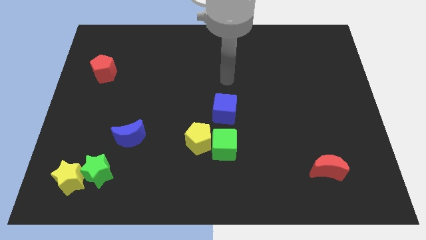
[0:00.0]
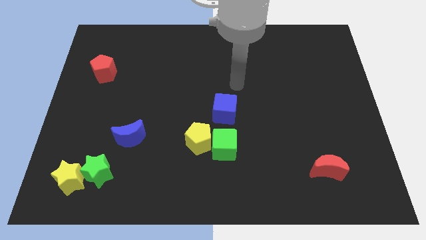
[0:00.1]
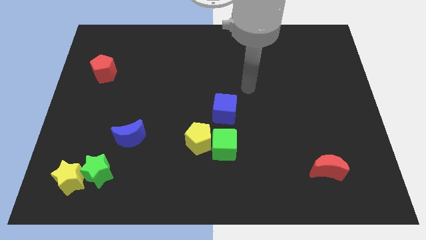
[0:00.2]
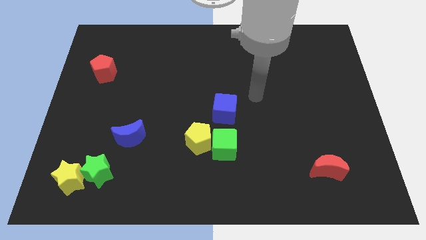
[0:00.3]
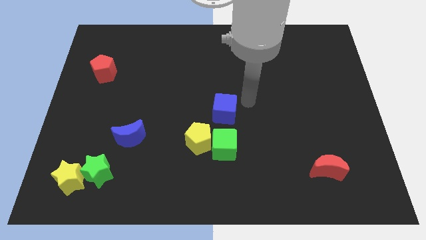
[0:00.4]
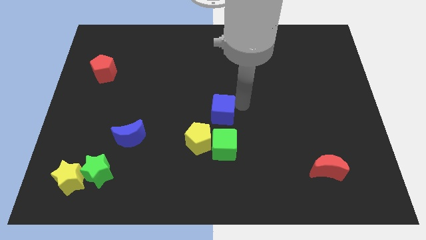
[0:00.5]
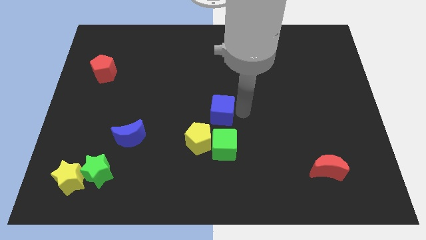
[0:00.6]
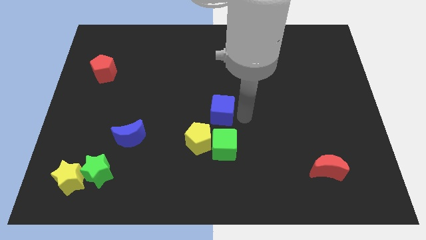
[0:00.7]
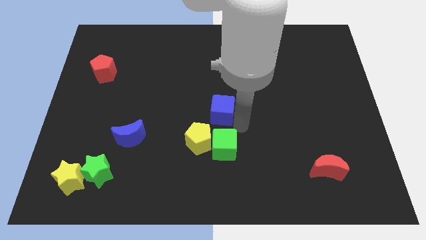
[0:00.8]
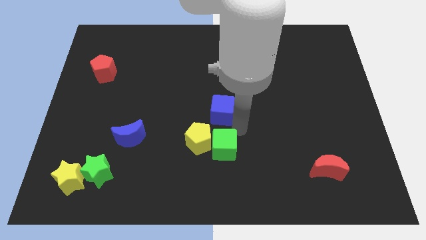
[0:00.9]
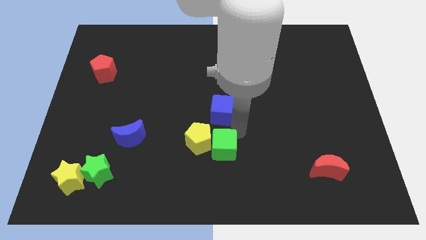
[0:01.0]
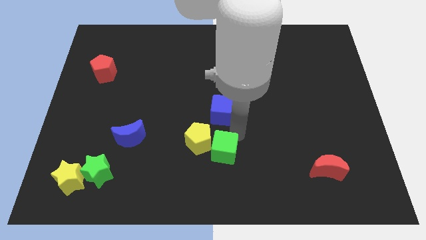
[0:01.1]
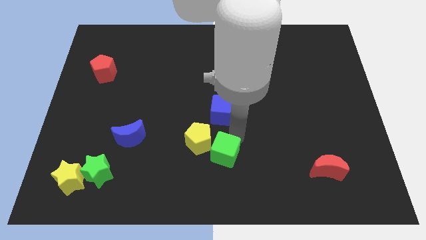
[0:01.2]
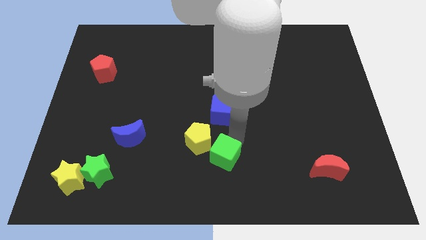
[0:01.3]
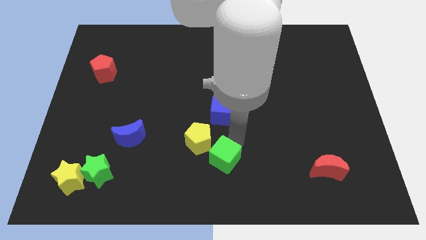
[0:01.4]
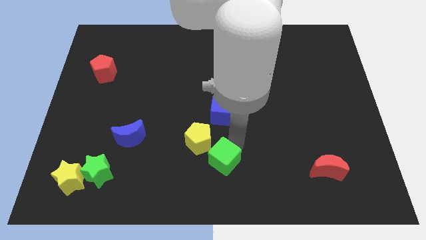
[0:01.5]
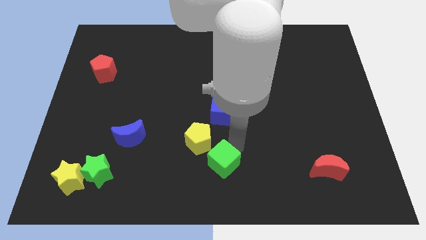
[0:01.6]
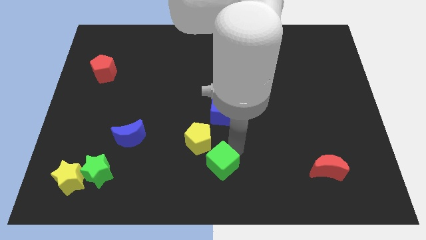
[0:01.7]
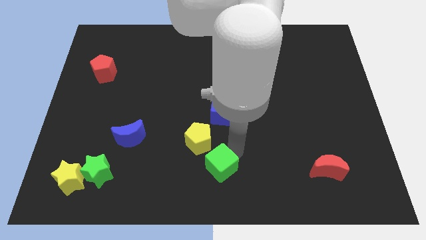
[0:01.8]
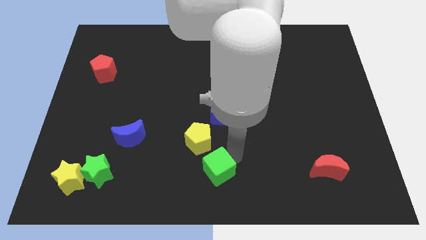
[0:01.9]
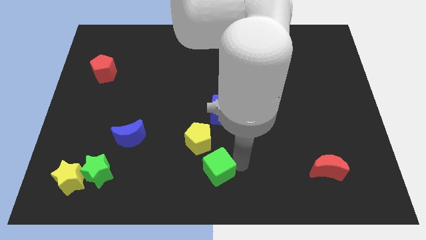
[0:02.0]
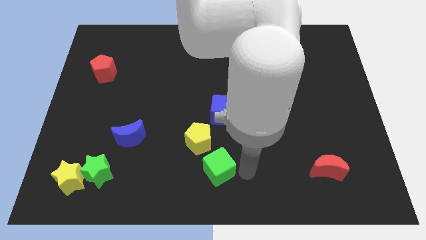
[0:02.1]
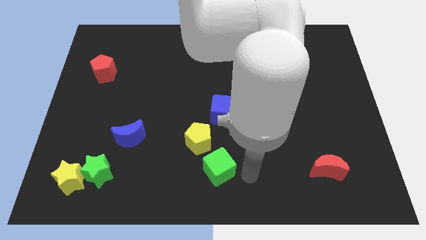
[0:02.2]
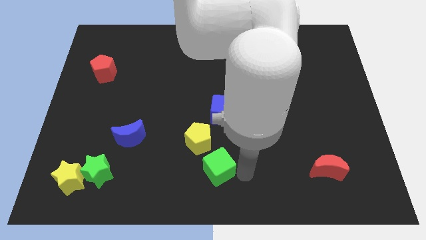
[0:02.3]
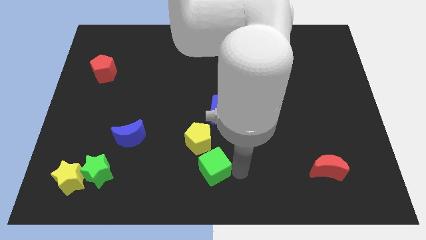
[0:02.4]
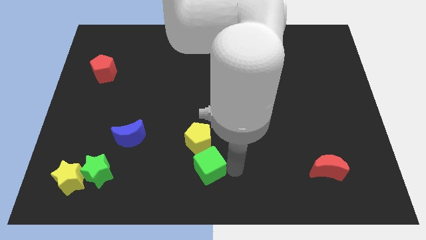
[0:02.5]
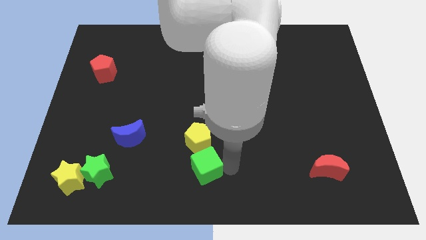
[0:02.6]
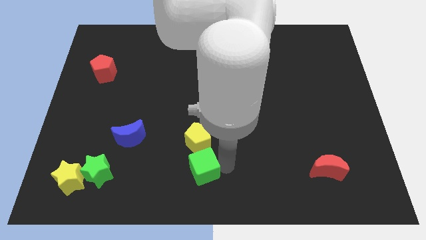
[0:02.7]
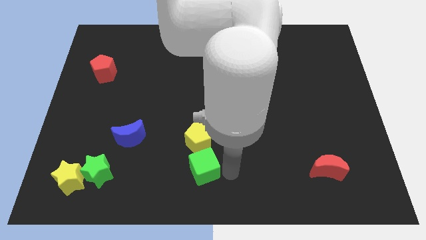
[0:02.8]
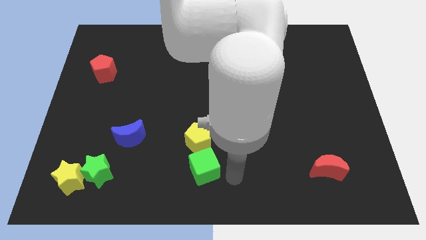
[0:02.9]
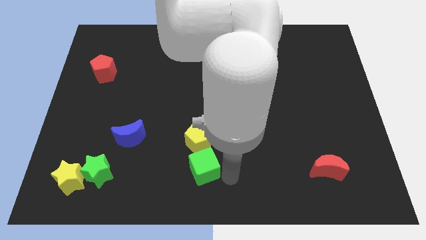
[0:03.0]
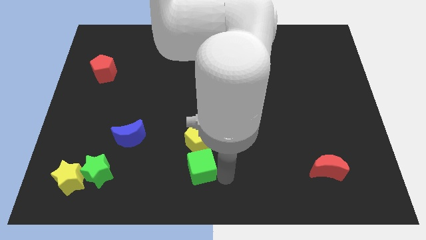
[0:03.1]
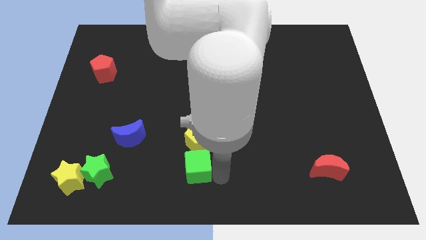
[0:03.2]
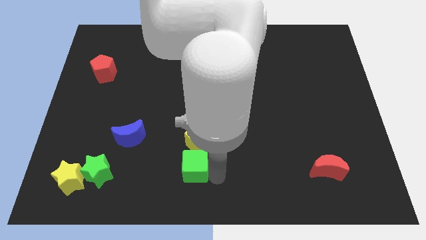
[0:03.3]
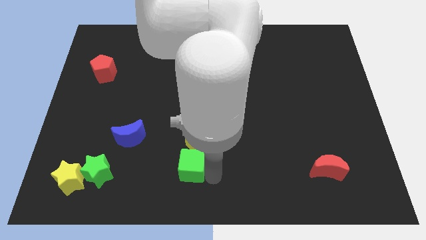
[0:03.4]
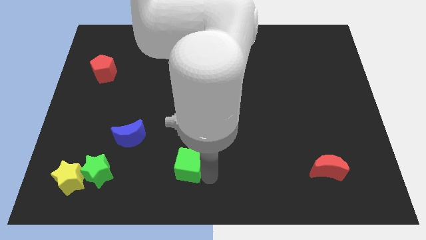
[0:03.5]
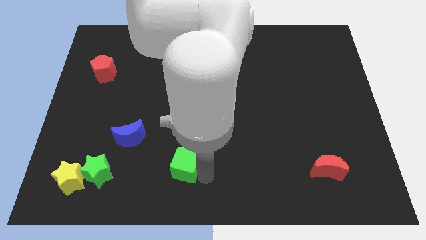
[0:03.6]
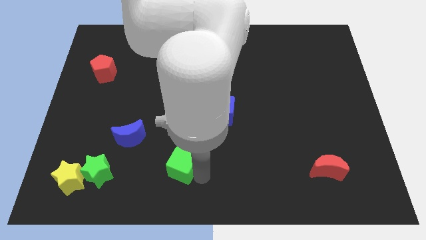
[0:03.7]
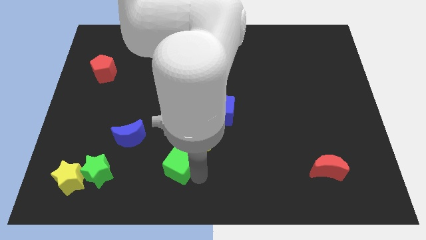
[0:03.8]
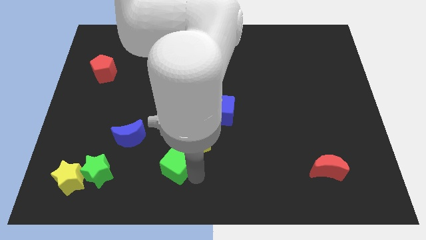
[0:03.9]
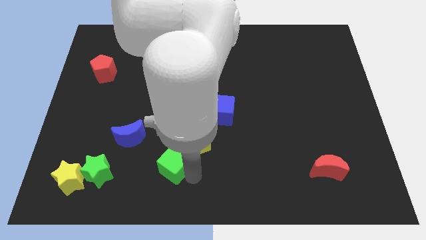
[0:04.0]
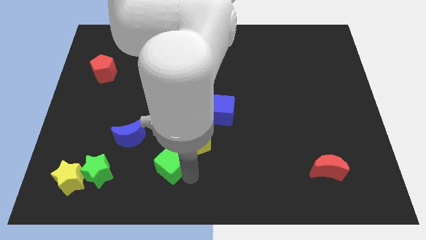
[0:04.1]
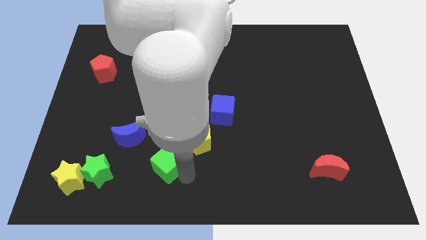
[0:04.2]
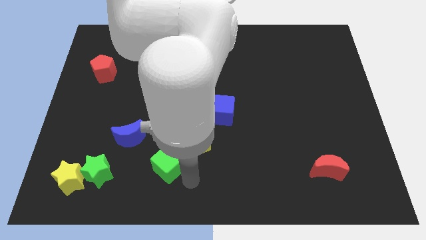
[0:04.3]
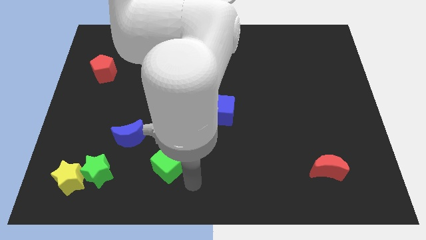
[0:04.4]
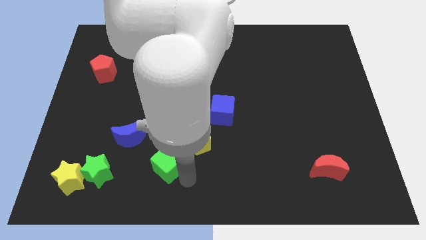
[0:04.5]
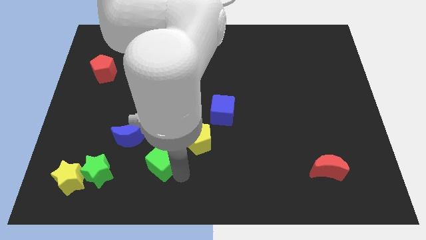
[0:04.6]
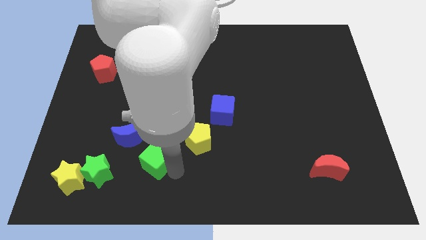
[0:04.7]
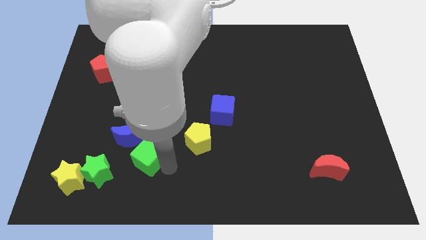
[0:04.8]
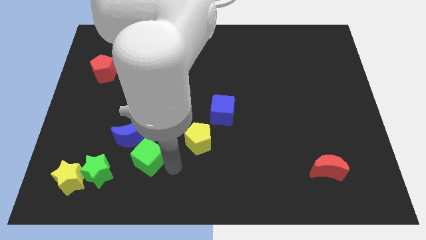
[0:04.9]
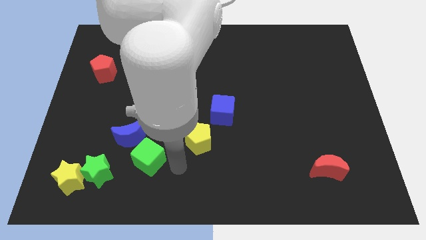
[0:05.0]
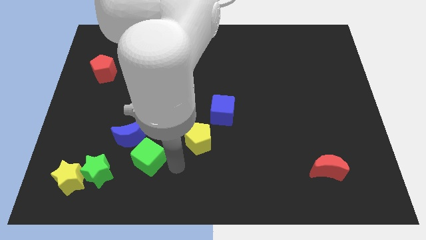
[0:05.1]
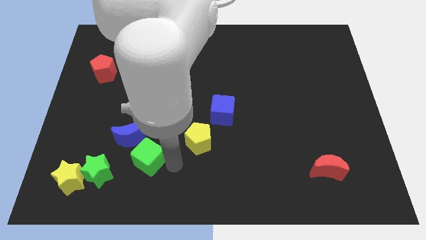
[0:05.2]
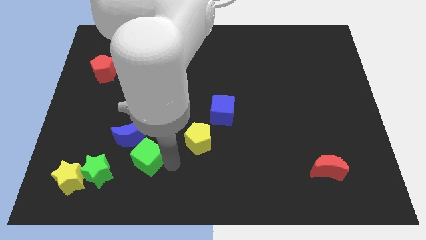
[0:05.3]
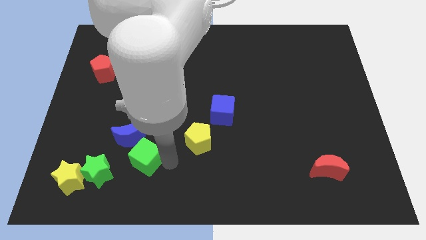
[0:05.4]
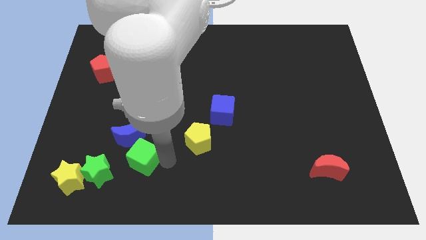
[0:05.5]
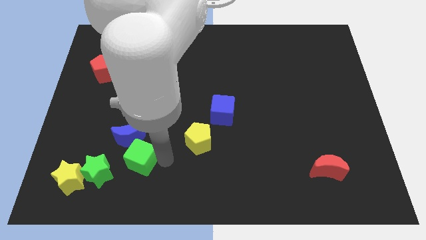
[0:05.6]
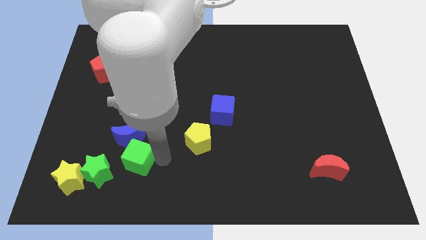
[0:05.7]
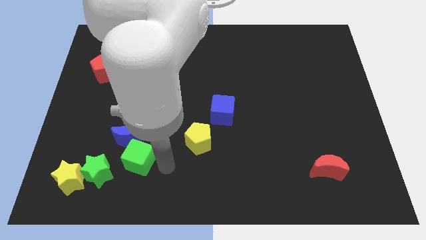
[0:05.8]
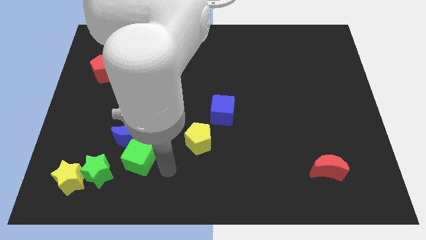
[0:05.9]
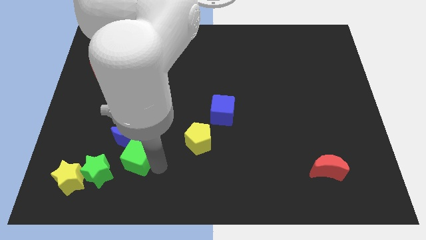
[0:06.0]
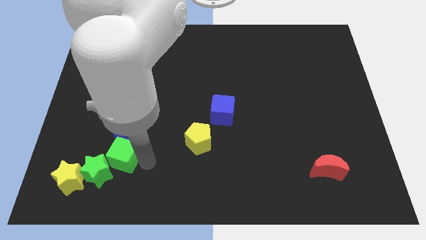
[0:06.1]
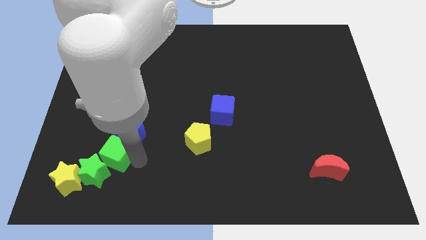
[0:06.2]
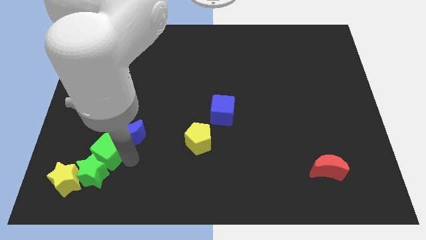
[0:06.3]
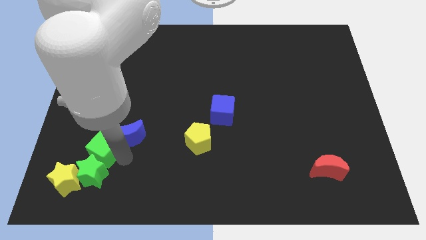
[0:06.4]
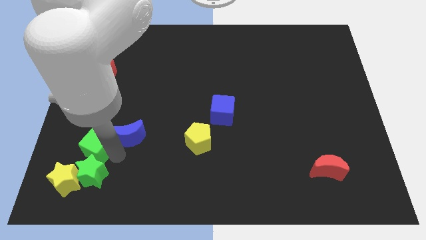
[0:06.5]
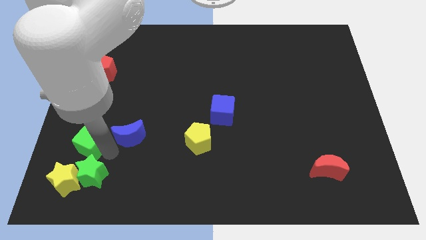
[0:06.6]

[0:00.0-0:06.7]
put the green cube to the top of the yellow star

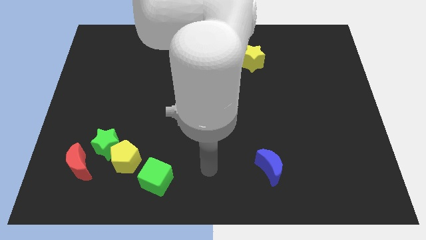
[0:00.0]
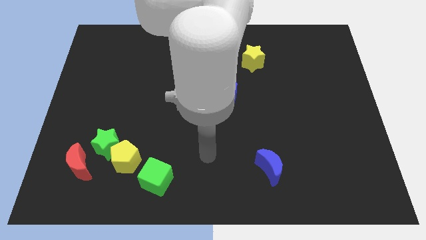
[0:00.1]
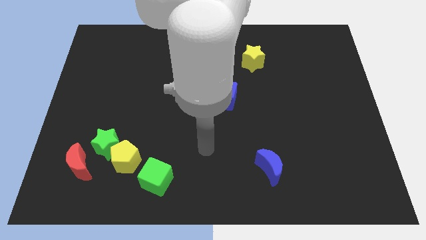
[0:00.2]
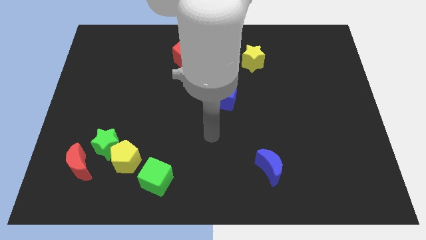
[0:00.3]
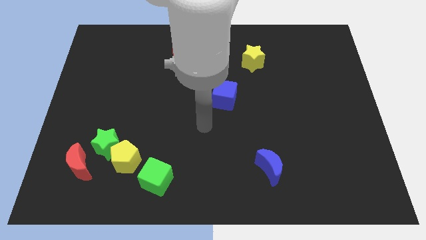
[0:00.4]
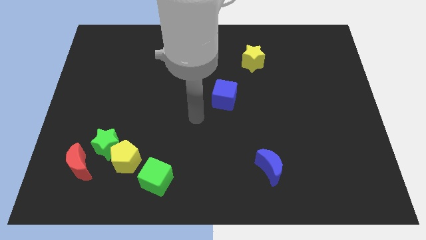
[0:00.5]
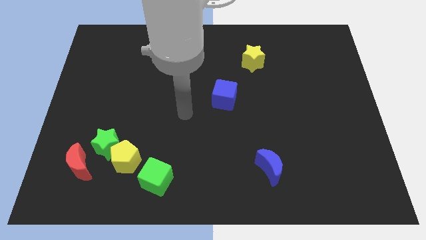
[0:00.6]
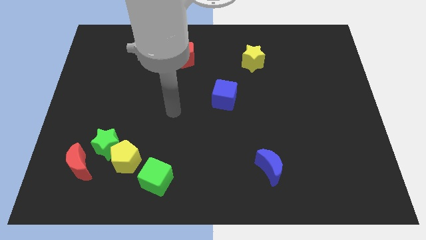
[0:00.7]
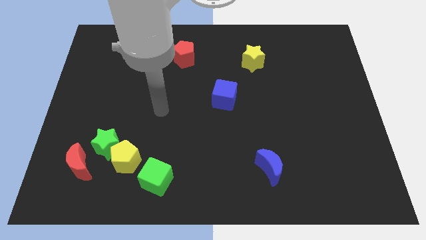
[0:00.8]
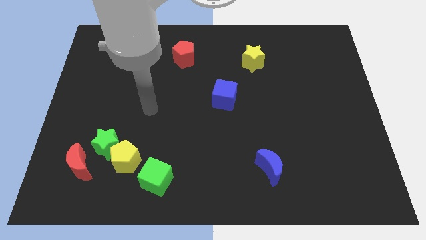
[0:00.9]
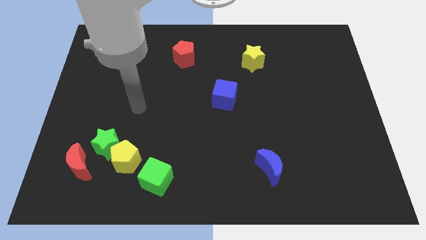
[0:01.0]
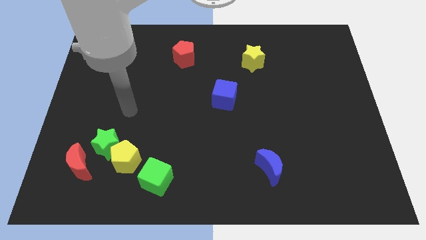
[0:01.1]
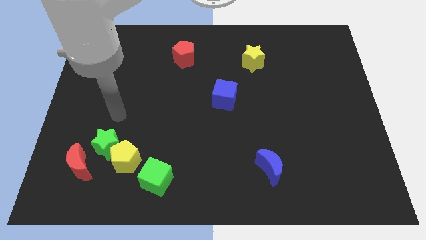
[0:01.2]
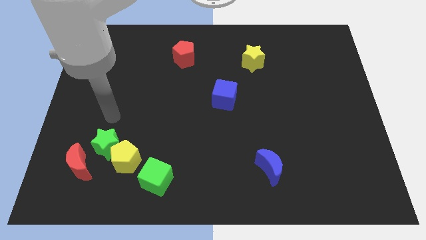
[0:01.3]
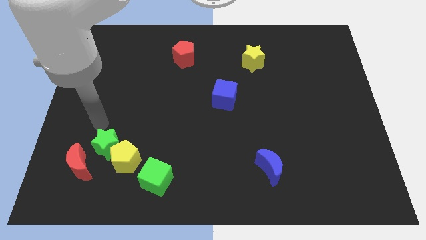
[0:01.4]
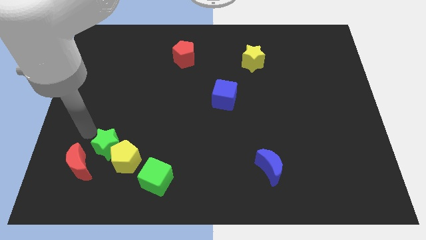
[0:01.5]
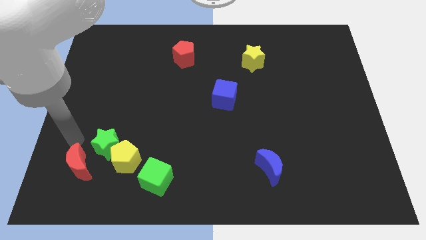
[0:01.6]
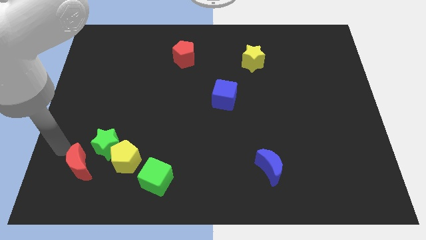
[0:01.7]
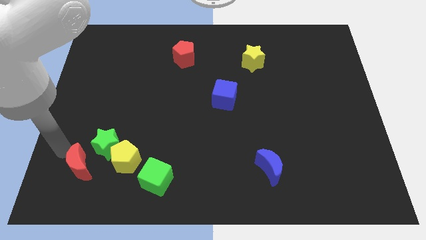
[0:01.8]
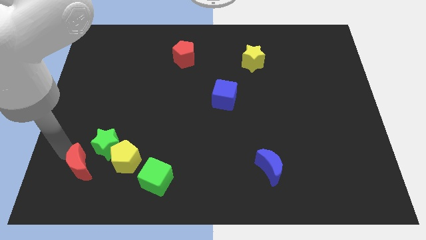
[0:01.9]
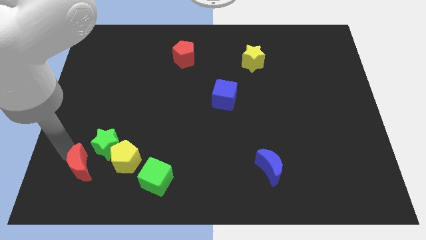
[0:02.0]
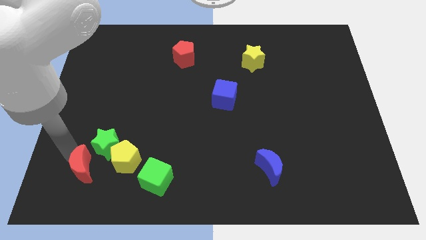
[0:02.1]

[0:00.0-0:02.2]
move the red moon to the bottom left side of the yellow pentagon
